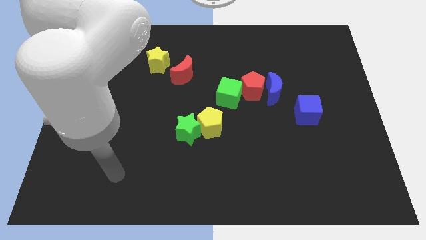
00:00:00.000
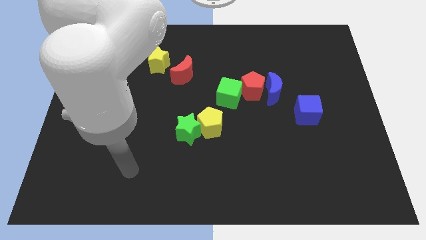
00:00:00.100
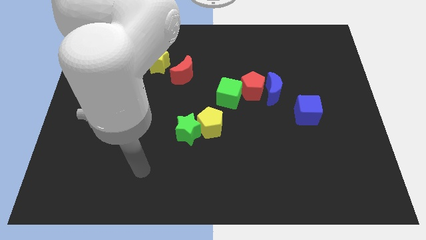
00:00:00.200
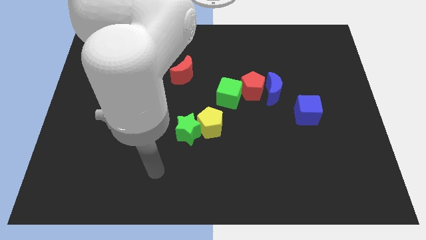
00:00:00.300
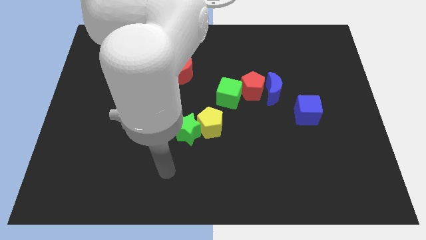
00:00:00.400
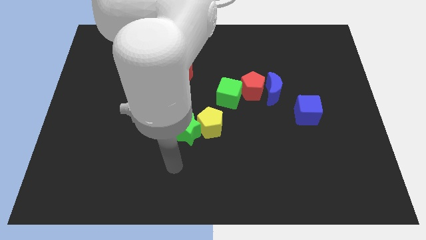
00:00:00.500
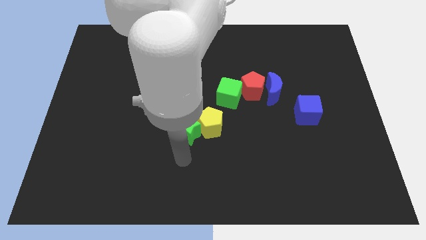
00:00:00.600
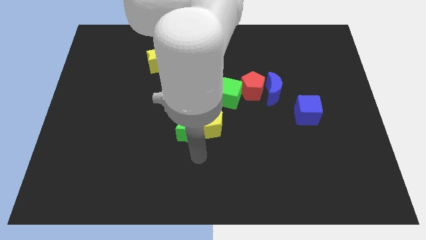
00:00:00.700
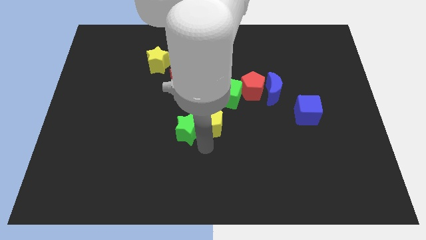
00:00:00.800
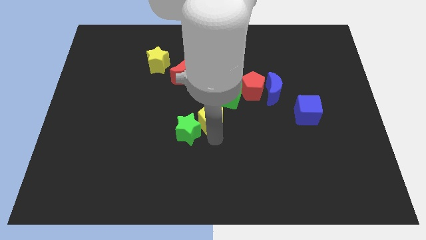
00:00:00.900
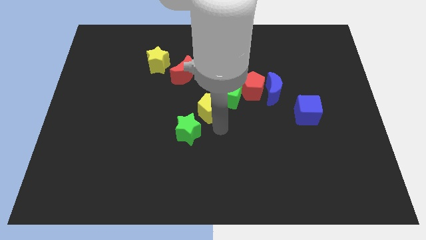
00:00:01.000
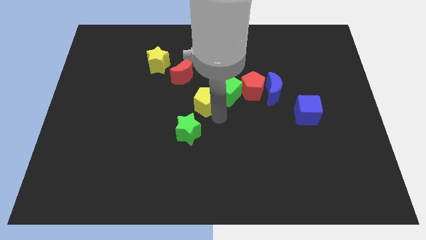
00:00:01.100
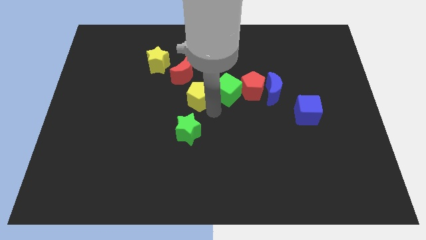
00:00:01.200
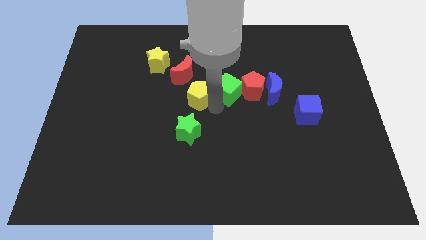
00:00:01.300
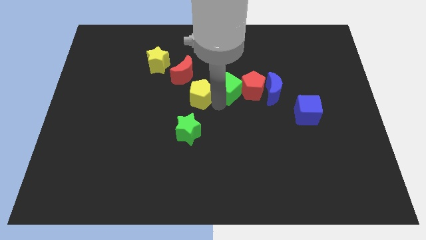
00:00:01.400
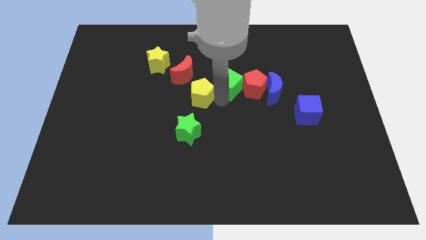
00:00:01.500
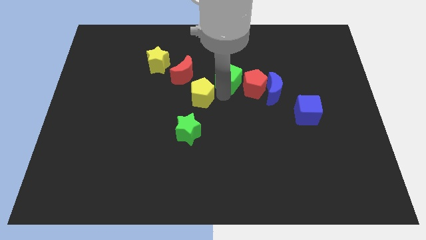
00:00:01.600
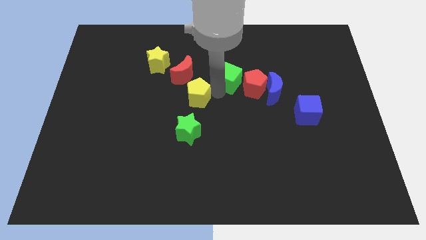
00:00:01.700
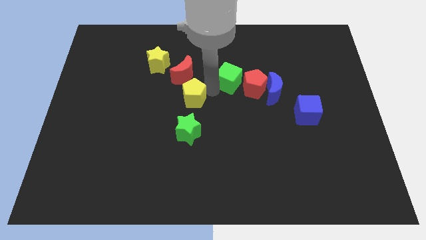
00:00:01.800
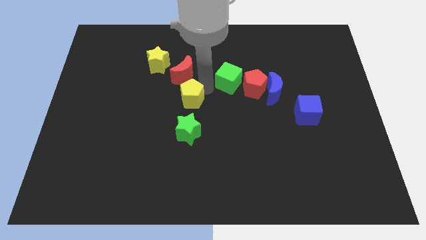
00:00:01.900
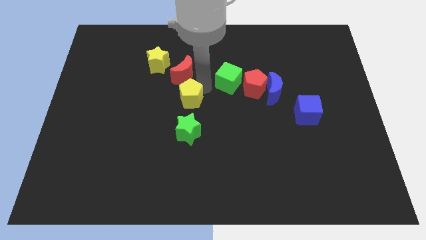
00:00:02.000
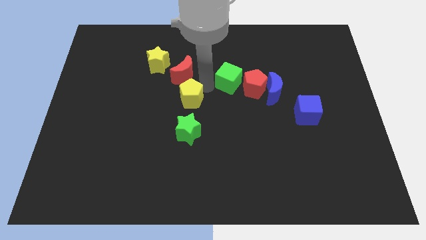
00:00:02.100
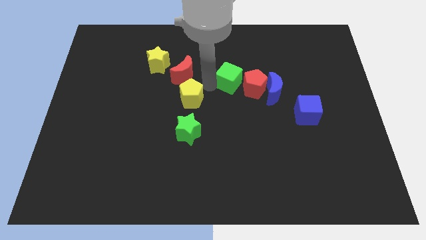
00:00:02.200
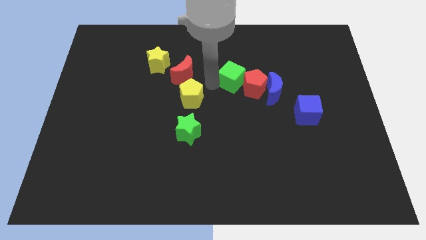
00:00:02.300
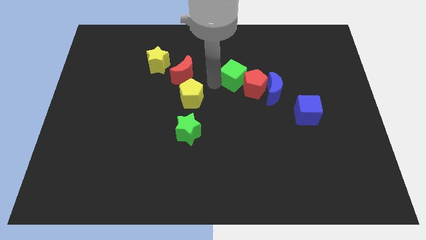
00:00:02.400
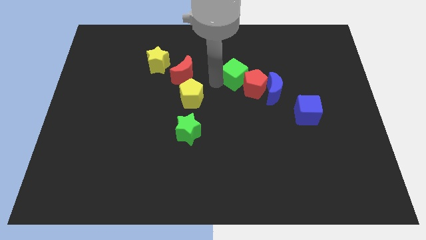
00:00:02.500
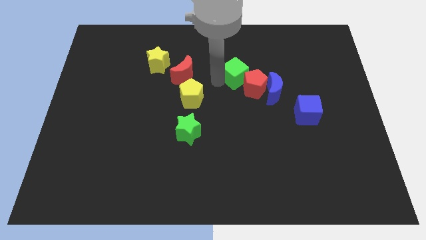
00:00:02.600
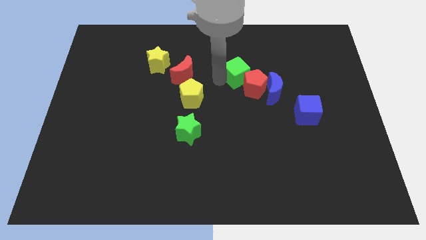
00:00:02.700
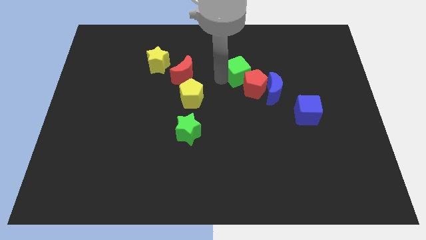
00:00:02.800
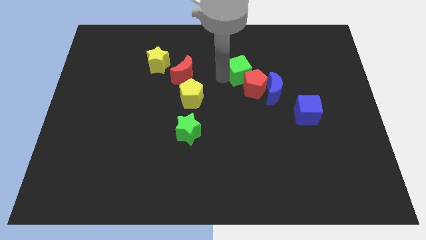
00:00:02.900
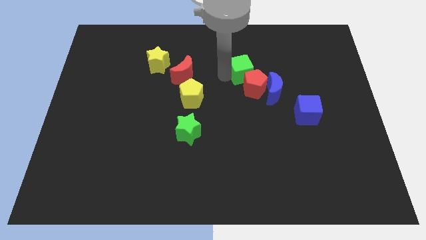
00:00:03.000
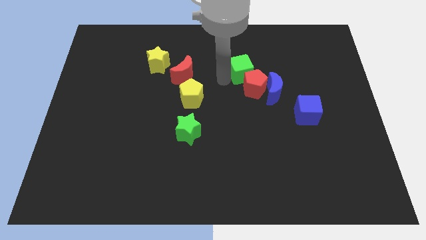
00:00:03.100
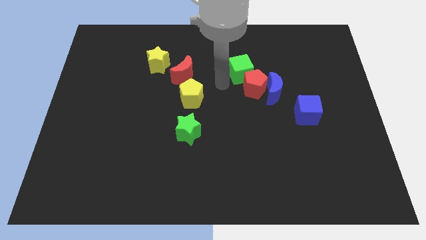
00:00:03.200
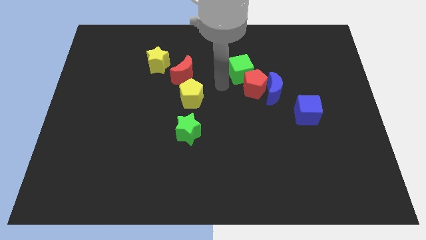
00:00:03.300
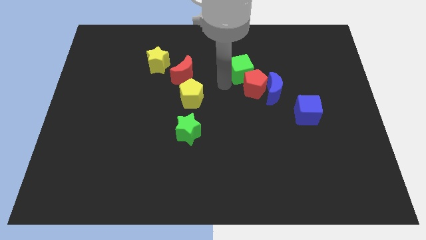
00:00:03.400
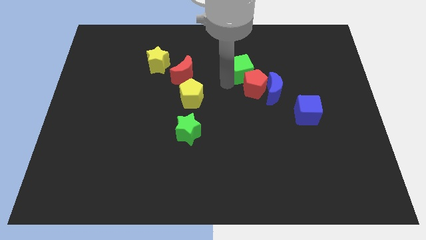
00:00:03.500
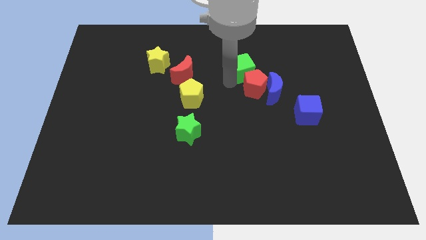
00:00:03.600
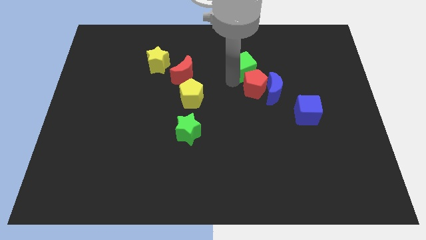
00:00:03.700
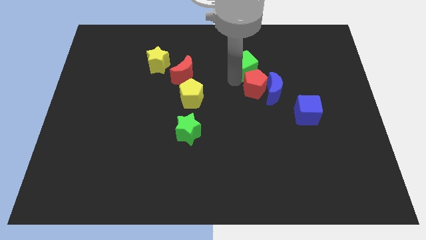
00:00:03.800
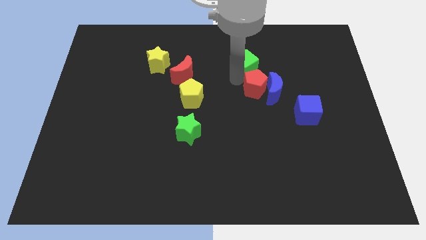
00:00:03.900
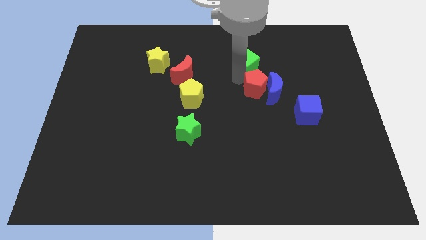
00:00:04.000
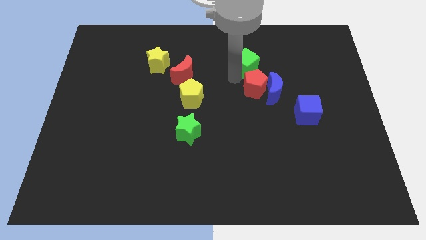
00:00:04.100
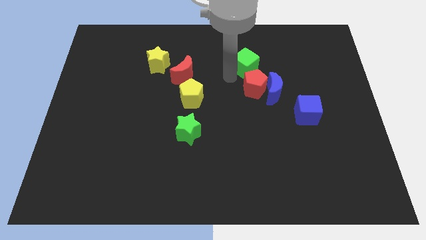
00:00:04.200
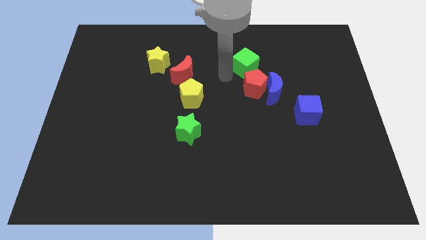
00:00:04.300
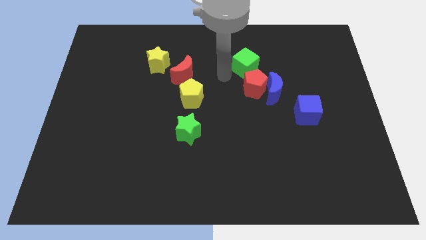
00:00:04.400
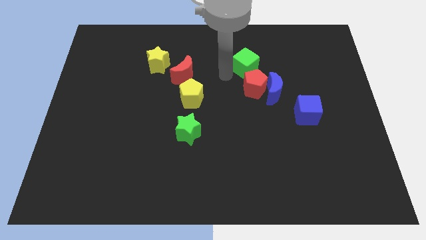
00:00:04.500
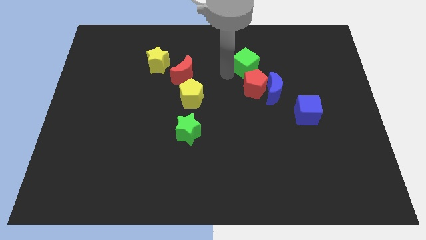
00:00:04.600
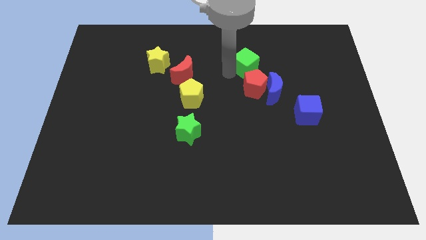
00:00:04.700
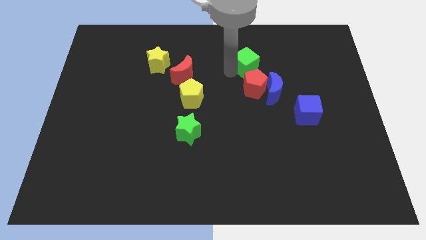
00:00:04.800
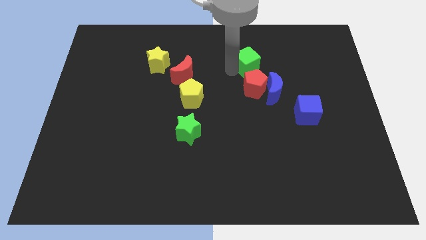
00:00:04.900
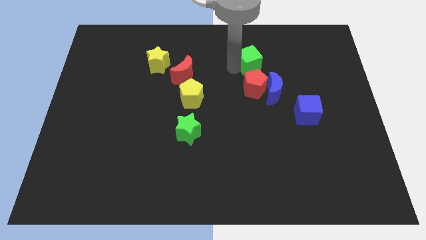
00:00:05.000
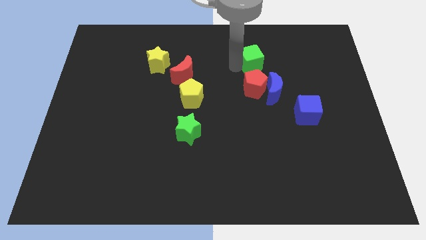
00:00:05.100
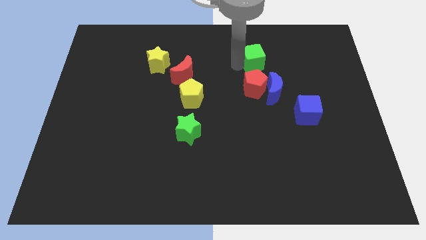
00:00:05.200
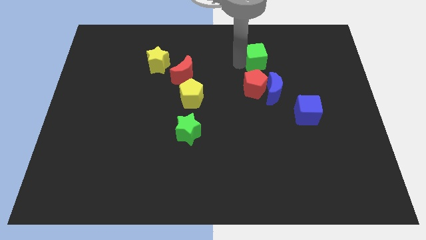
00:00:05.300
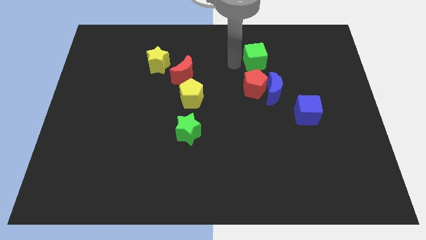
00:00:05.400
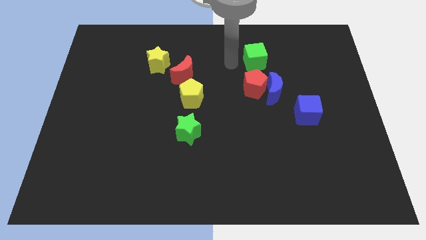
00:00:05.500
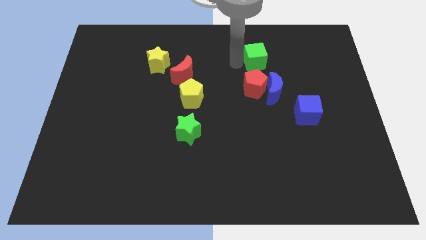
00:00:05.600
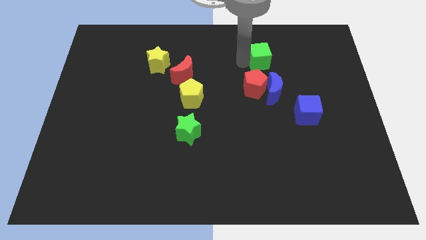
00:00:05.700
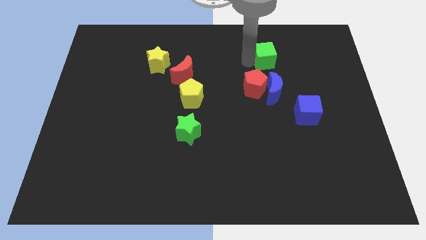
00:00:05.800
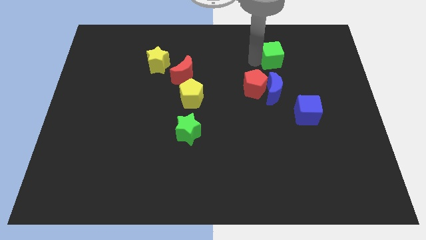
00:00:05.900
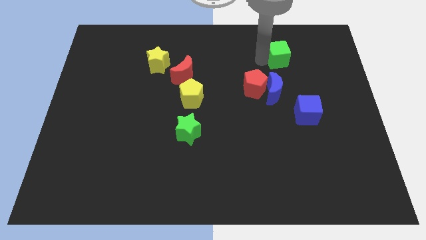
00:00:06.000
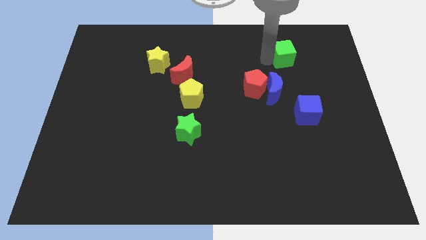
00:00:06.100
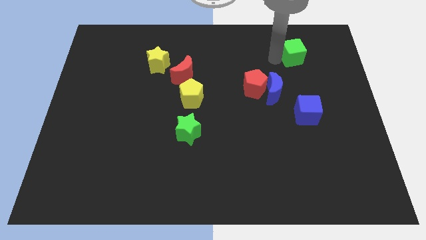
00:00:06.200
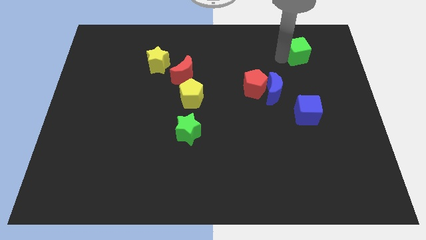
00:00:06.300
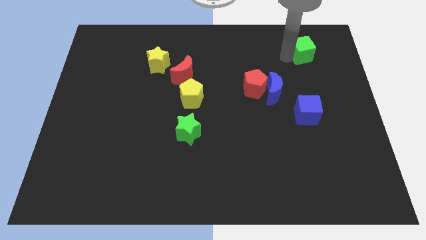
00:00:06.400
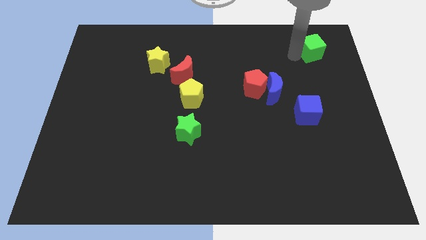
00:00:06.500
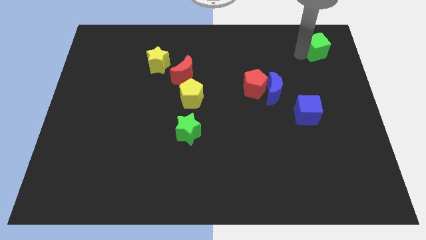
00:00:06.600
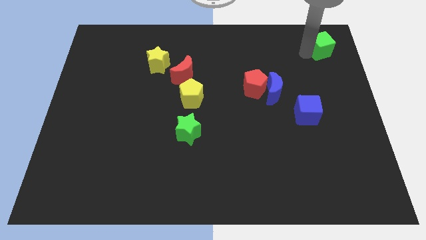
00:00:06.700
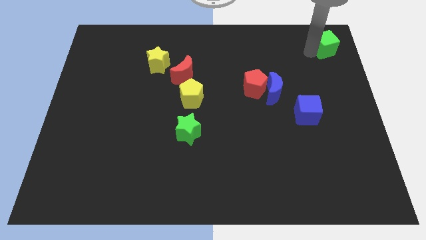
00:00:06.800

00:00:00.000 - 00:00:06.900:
put the green cube to the top right of the board
